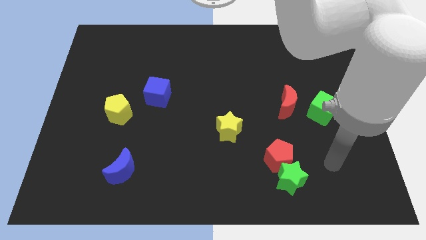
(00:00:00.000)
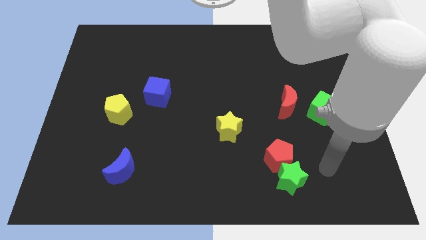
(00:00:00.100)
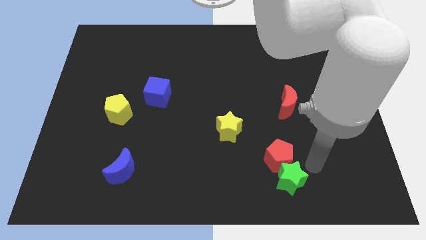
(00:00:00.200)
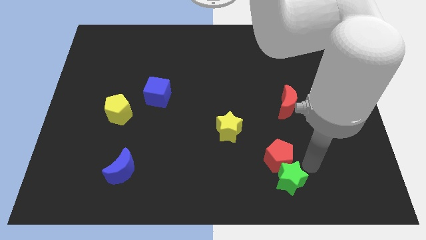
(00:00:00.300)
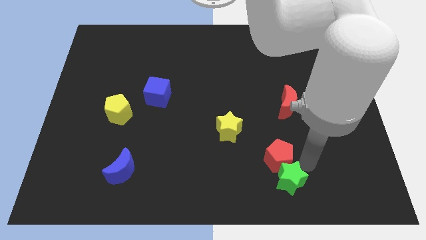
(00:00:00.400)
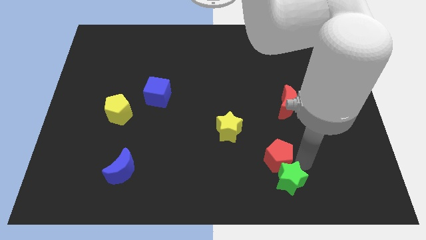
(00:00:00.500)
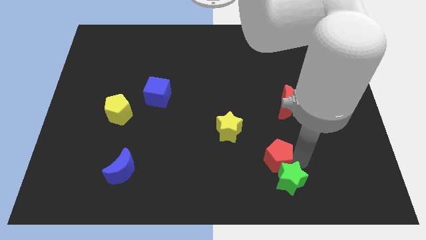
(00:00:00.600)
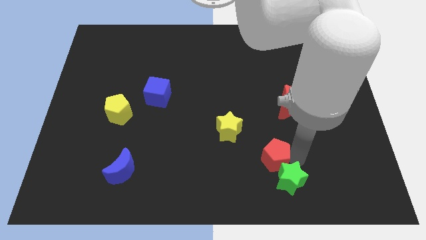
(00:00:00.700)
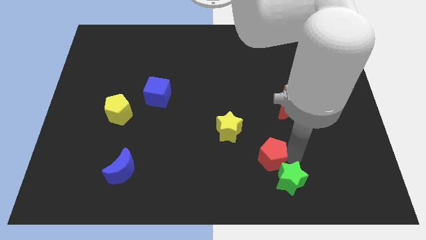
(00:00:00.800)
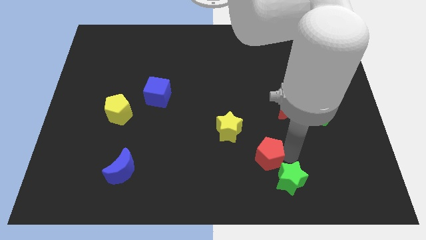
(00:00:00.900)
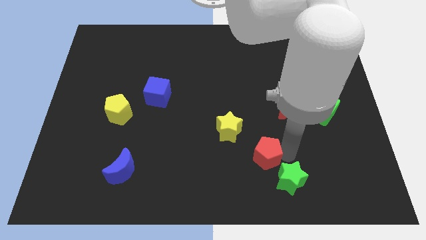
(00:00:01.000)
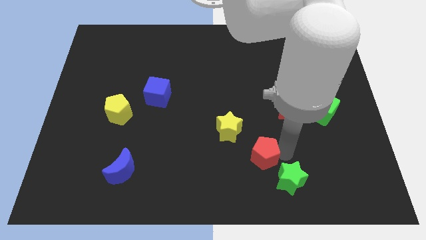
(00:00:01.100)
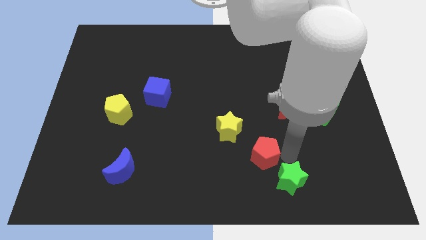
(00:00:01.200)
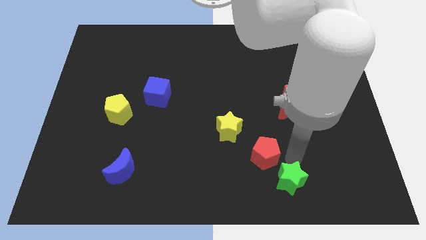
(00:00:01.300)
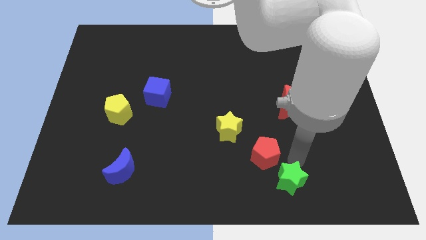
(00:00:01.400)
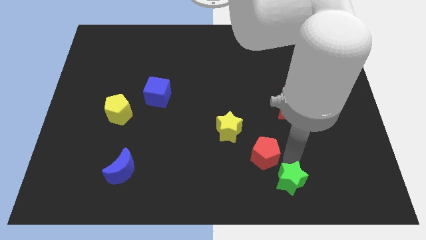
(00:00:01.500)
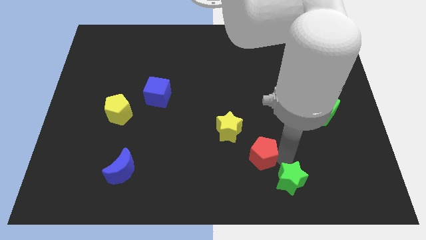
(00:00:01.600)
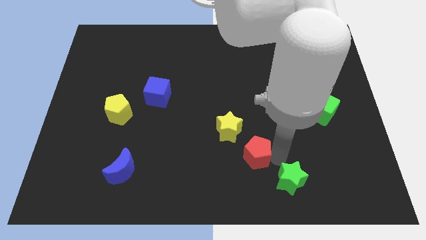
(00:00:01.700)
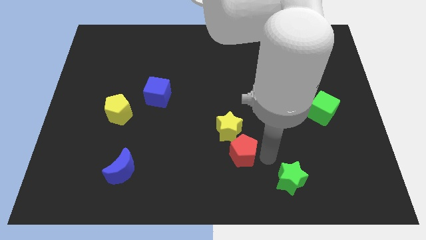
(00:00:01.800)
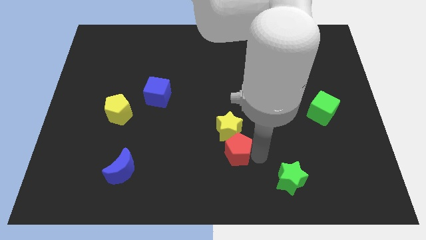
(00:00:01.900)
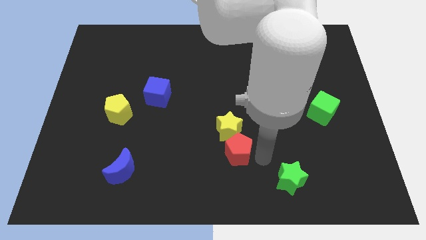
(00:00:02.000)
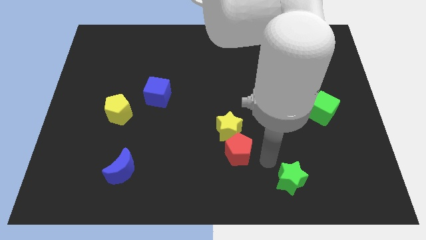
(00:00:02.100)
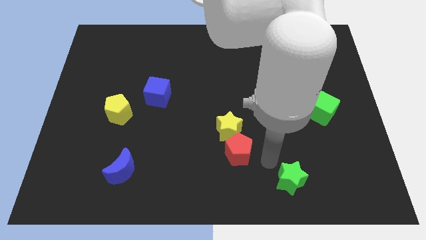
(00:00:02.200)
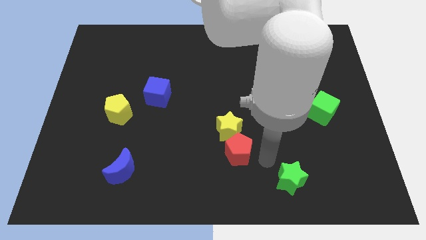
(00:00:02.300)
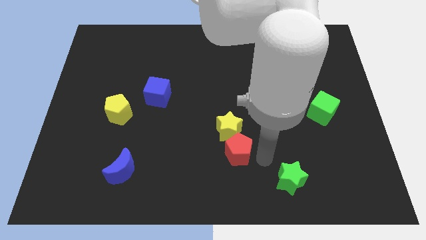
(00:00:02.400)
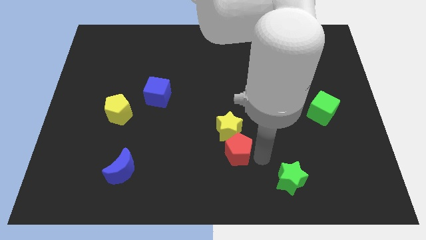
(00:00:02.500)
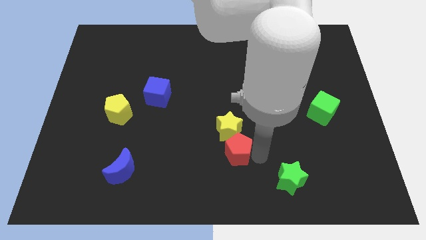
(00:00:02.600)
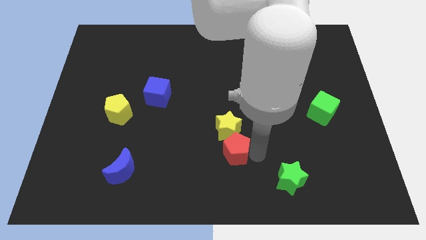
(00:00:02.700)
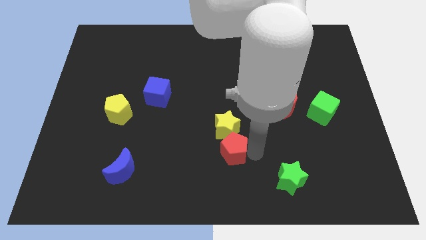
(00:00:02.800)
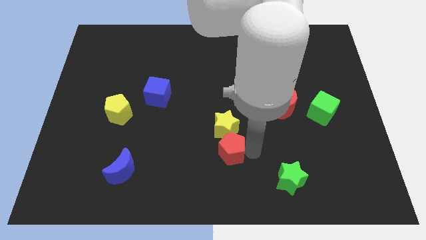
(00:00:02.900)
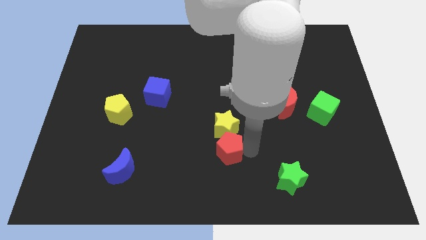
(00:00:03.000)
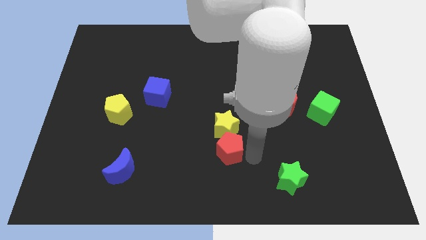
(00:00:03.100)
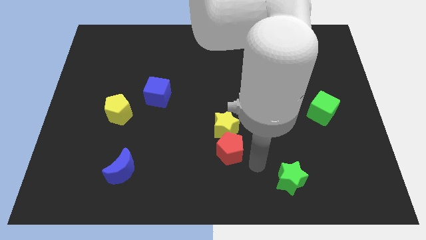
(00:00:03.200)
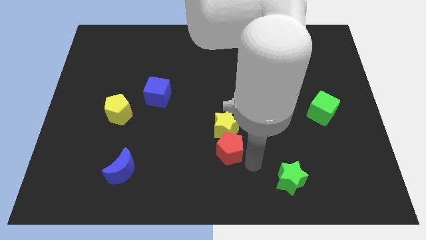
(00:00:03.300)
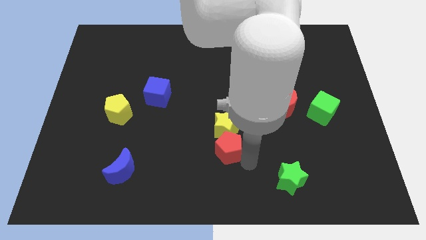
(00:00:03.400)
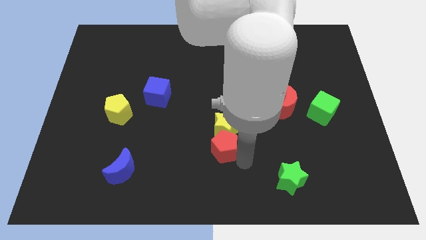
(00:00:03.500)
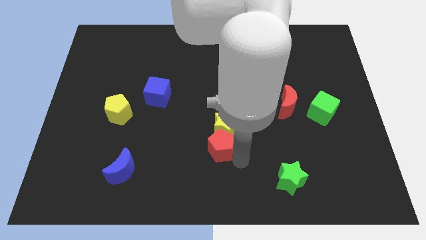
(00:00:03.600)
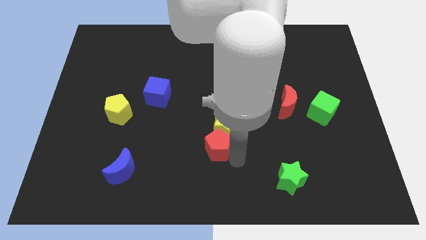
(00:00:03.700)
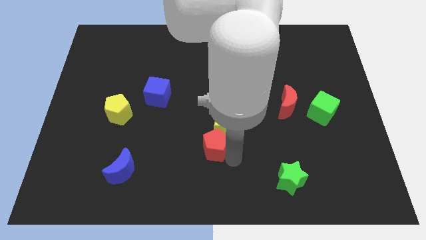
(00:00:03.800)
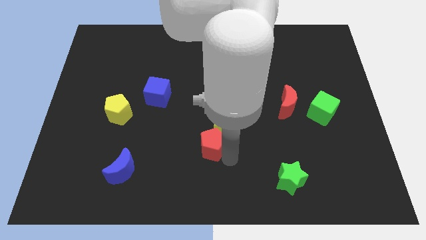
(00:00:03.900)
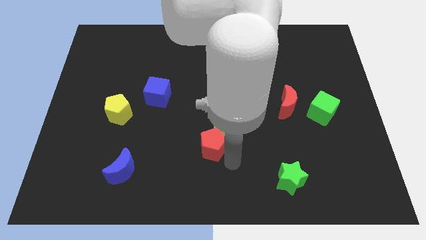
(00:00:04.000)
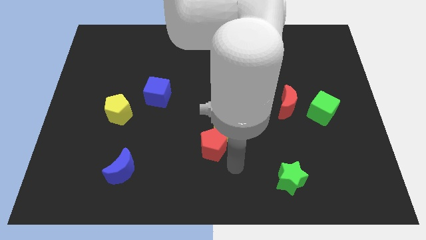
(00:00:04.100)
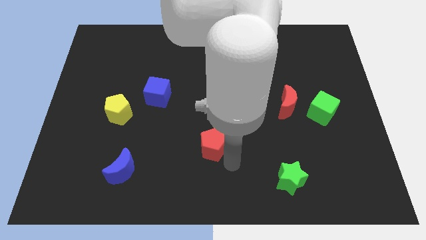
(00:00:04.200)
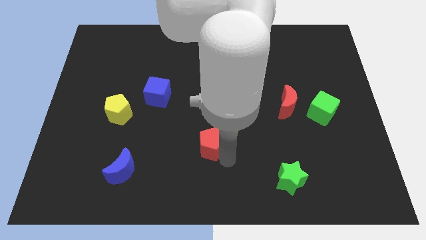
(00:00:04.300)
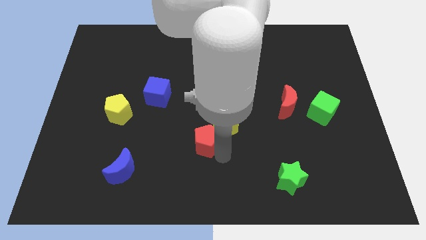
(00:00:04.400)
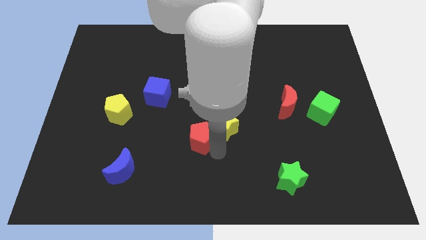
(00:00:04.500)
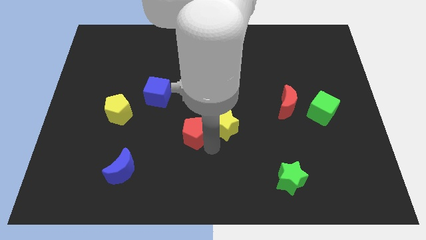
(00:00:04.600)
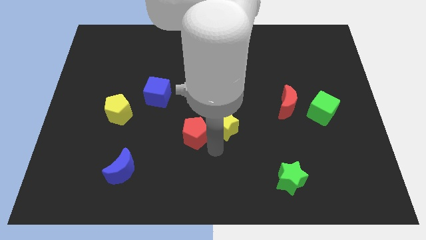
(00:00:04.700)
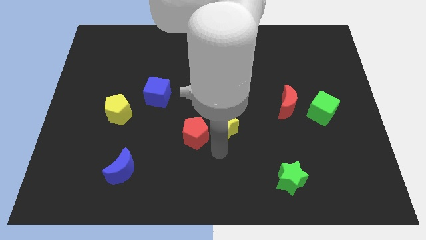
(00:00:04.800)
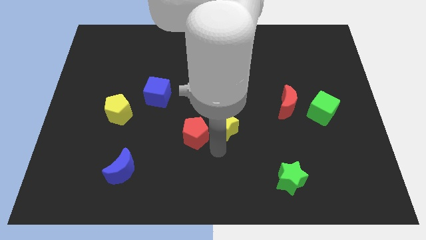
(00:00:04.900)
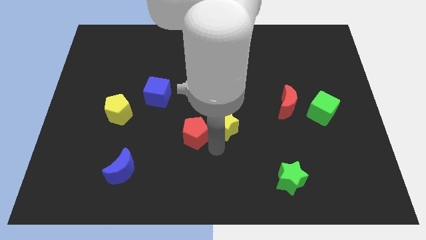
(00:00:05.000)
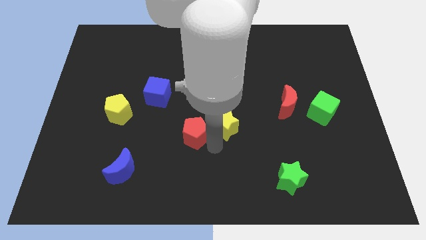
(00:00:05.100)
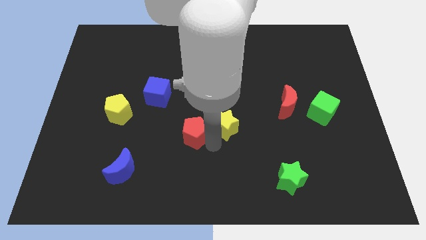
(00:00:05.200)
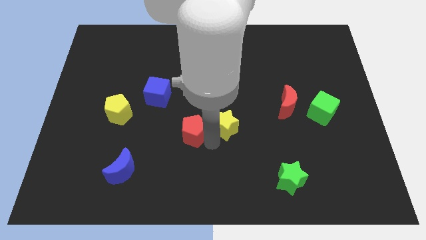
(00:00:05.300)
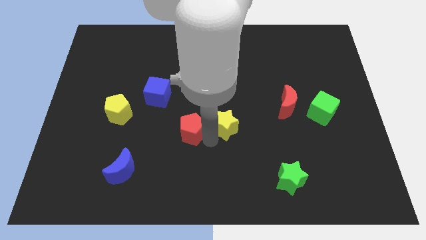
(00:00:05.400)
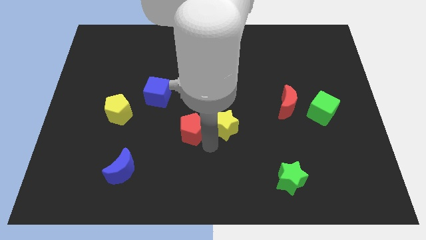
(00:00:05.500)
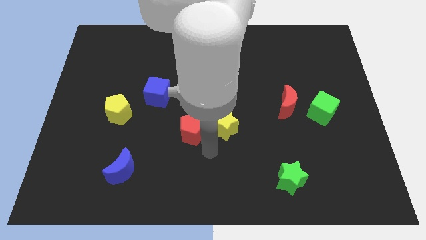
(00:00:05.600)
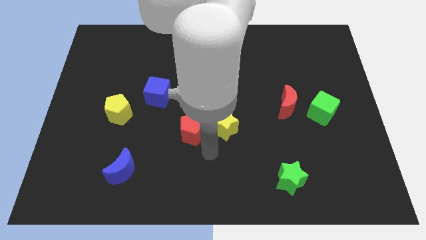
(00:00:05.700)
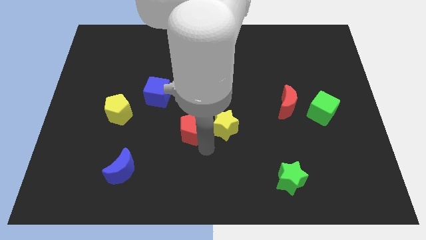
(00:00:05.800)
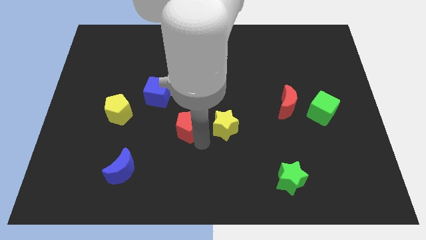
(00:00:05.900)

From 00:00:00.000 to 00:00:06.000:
slide the red pentagon to the bottom right of the blue cube
